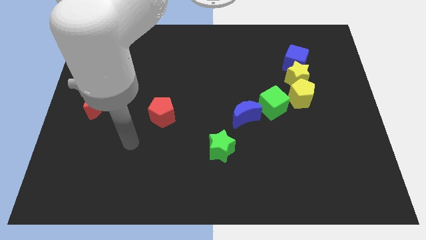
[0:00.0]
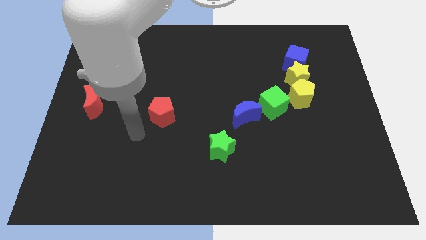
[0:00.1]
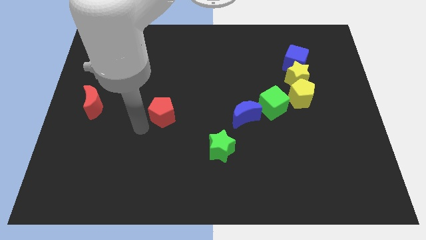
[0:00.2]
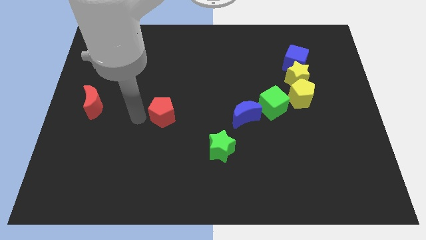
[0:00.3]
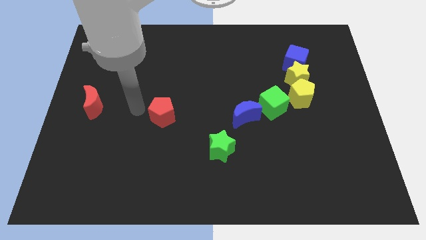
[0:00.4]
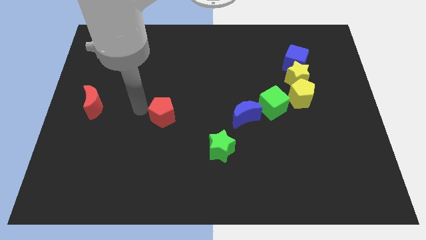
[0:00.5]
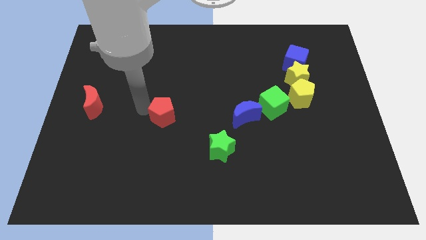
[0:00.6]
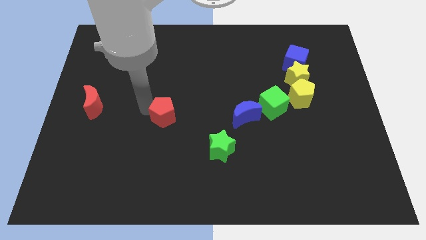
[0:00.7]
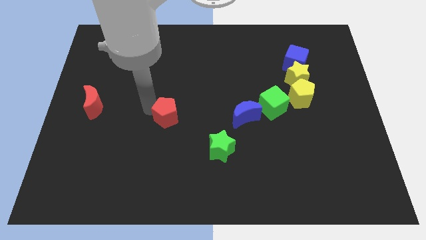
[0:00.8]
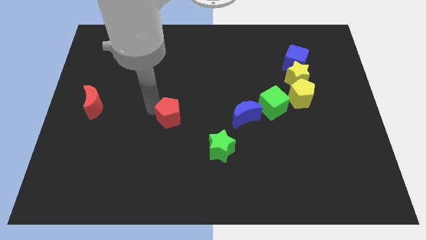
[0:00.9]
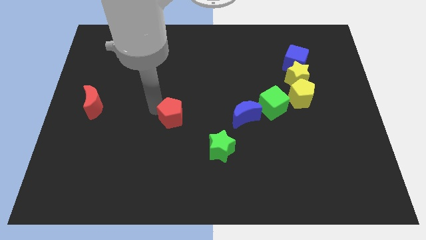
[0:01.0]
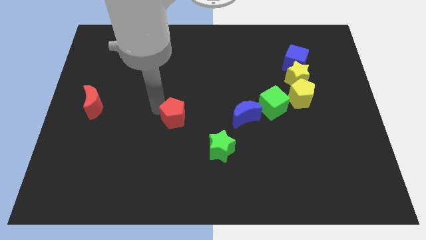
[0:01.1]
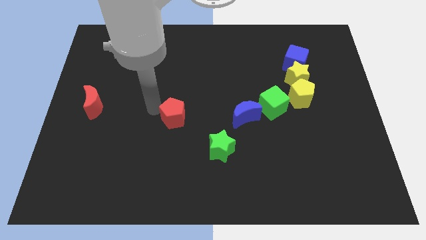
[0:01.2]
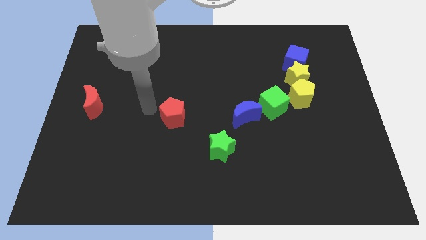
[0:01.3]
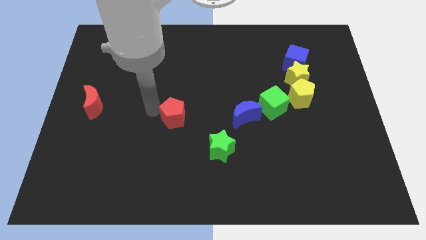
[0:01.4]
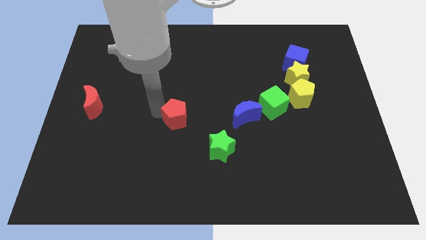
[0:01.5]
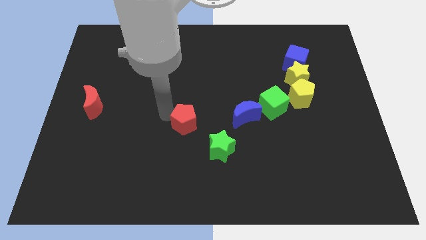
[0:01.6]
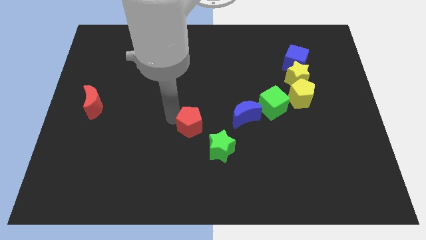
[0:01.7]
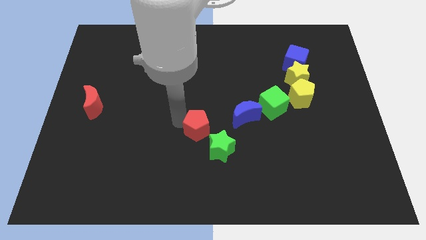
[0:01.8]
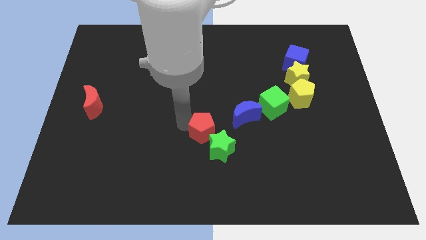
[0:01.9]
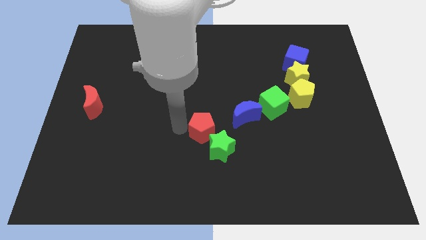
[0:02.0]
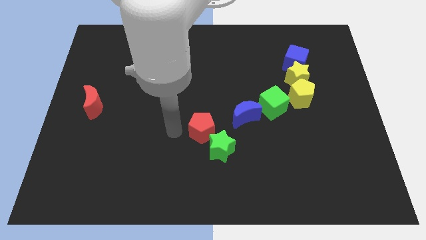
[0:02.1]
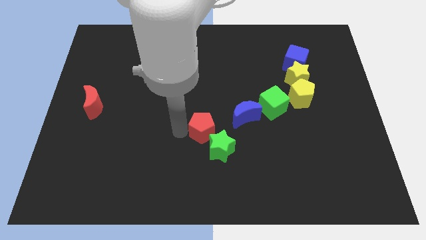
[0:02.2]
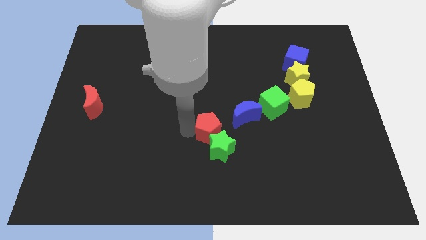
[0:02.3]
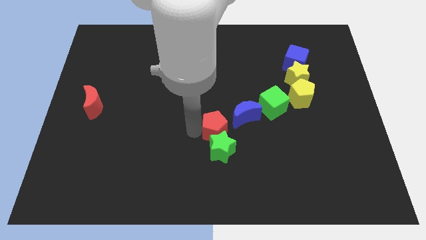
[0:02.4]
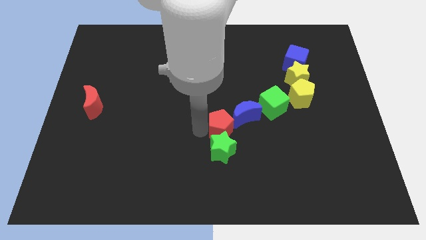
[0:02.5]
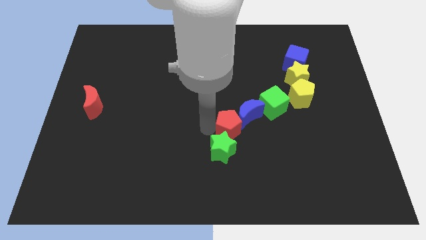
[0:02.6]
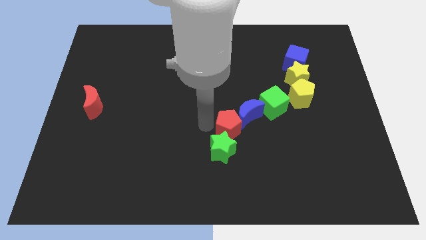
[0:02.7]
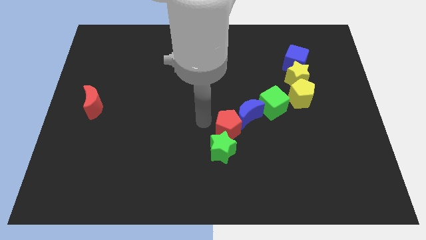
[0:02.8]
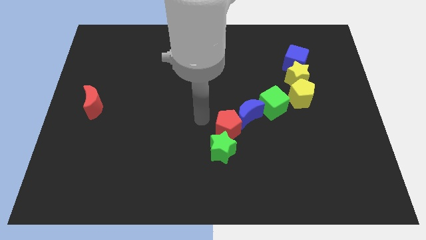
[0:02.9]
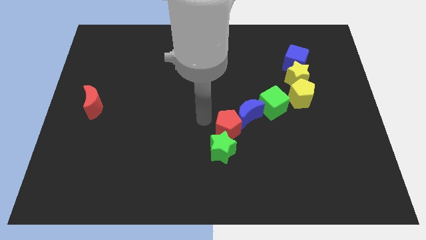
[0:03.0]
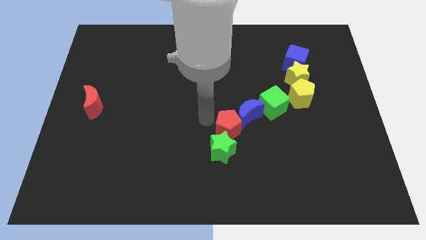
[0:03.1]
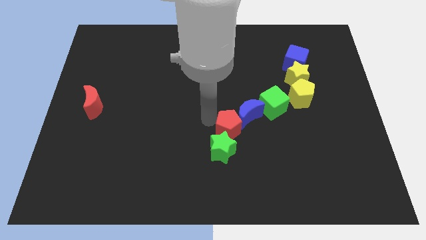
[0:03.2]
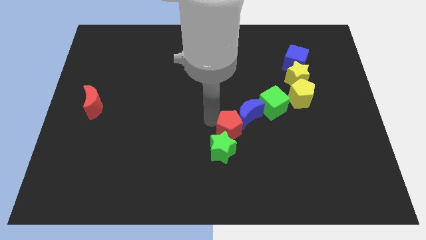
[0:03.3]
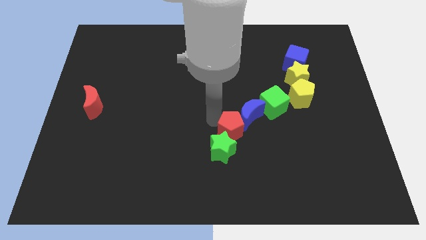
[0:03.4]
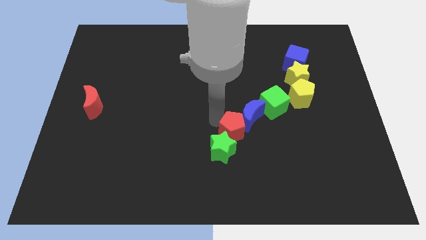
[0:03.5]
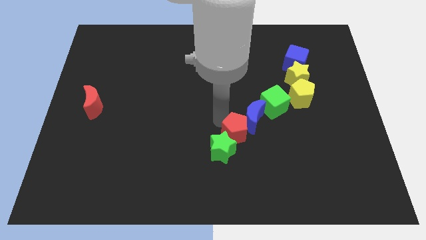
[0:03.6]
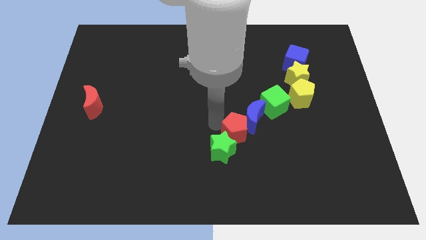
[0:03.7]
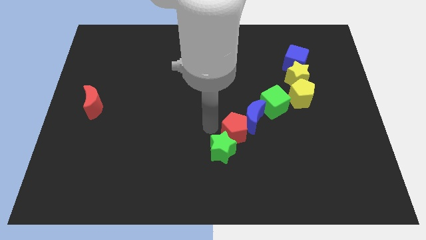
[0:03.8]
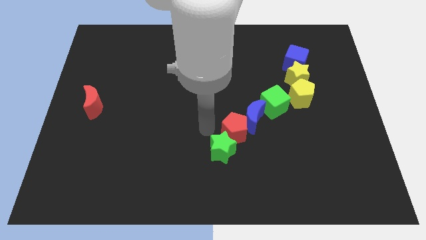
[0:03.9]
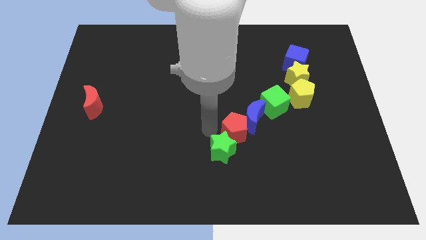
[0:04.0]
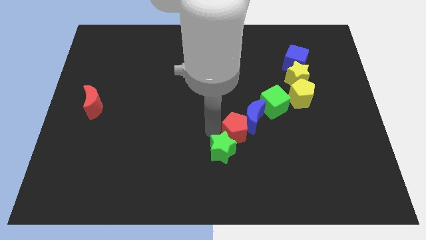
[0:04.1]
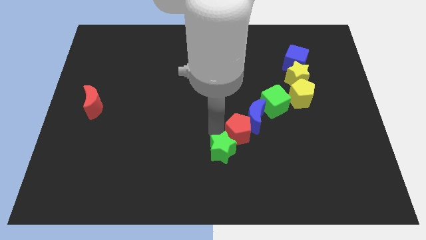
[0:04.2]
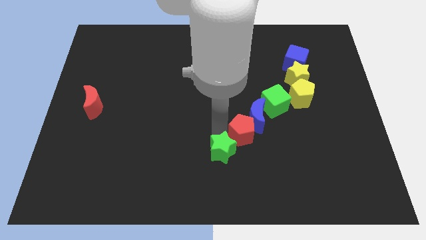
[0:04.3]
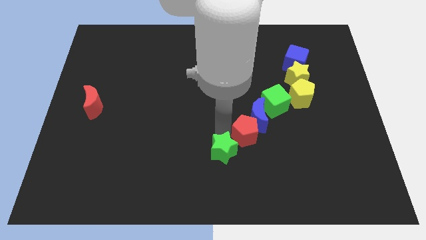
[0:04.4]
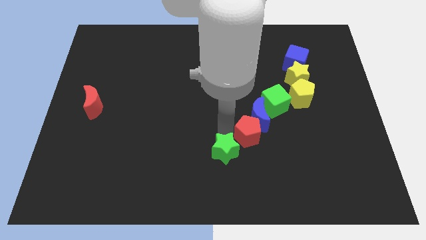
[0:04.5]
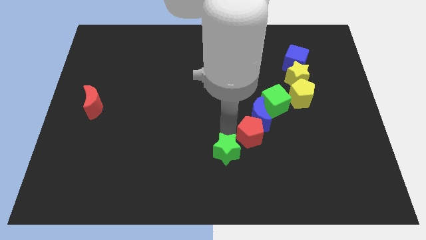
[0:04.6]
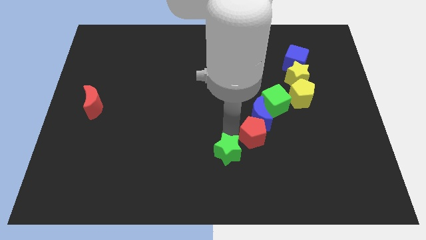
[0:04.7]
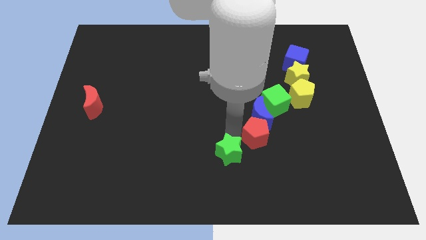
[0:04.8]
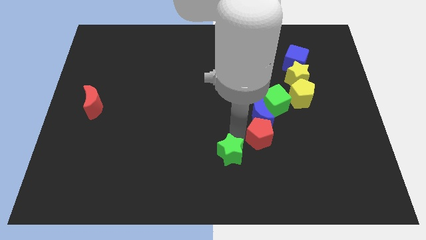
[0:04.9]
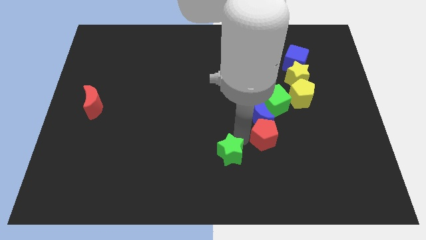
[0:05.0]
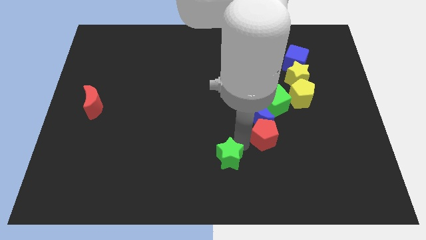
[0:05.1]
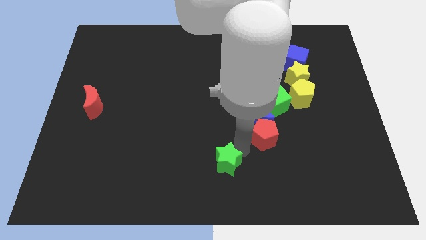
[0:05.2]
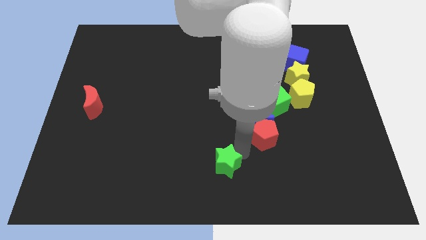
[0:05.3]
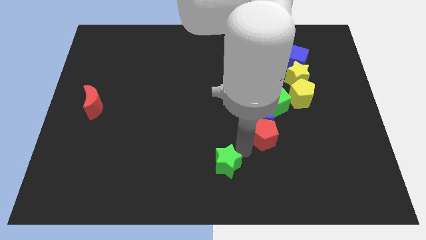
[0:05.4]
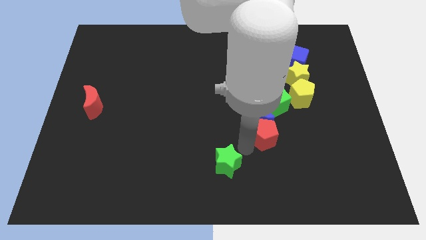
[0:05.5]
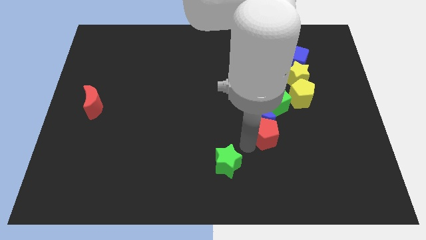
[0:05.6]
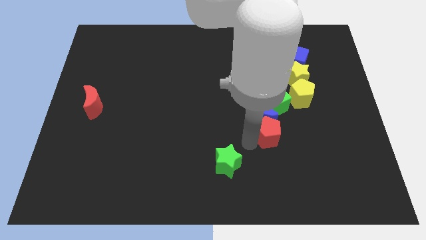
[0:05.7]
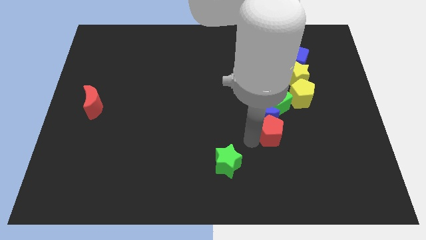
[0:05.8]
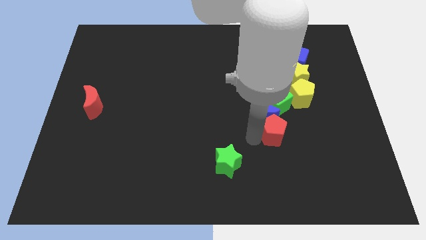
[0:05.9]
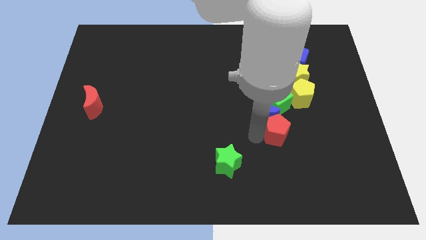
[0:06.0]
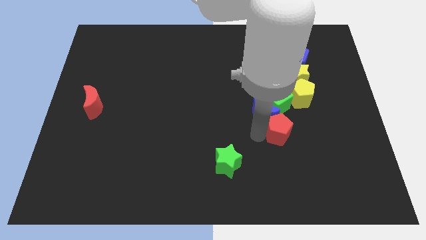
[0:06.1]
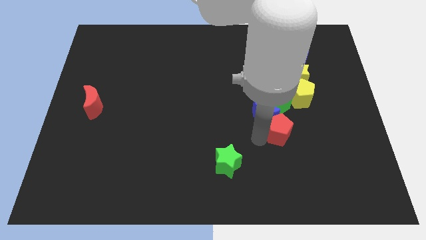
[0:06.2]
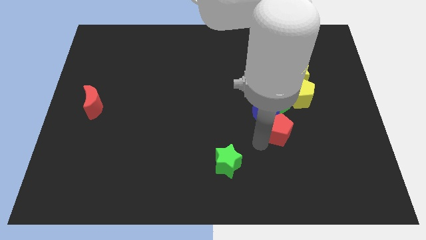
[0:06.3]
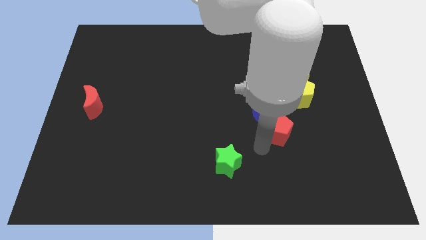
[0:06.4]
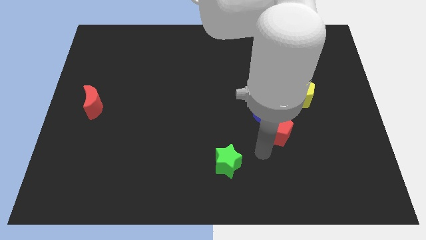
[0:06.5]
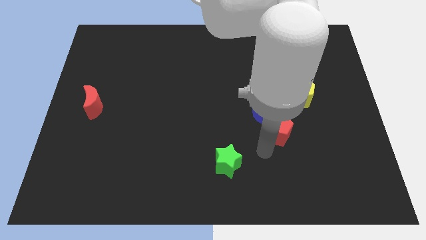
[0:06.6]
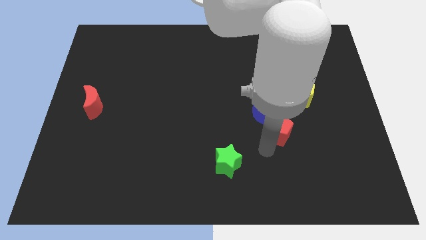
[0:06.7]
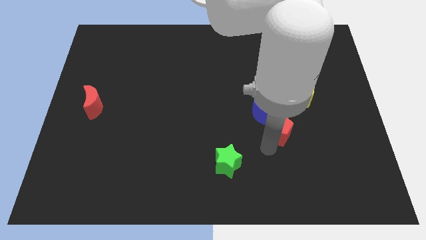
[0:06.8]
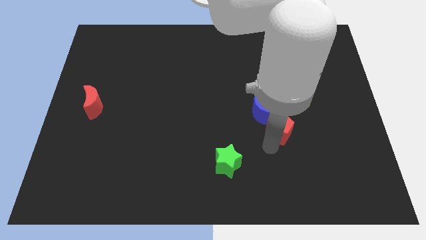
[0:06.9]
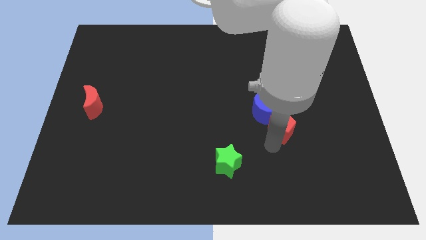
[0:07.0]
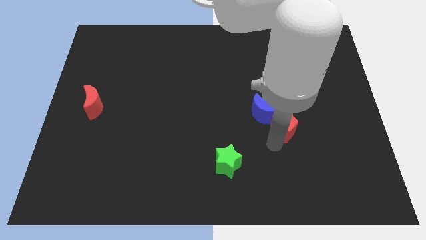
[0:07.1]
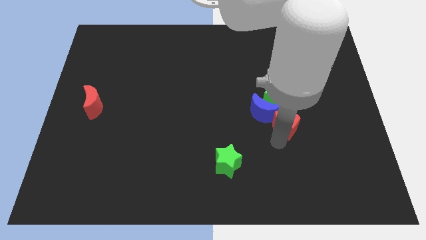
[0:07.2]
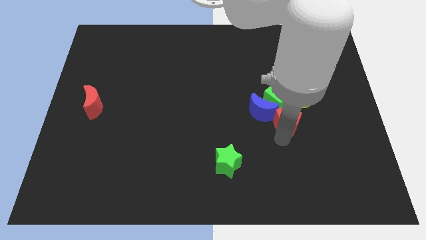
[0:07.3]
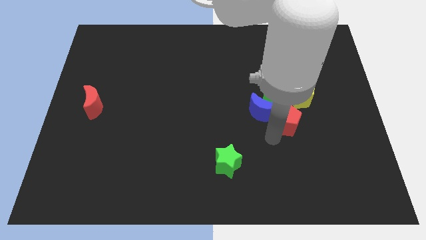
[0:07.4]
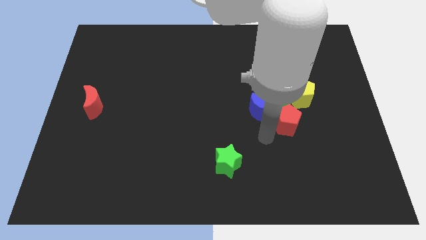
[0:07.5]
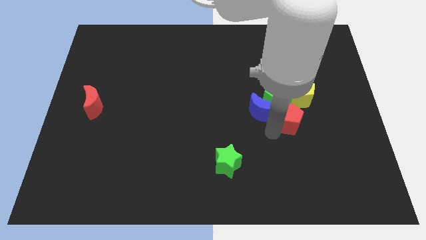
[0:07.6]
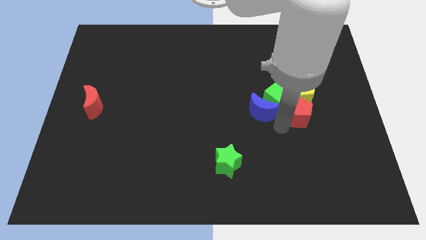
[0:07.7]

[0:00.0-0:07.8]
put the red pentagon to the right of the green cube
